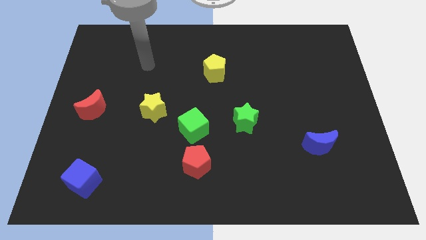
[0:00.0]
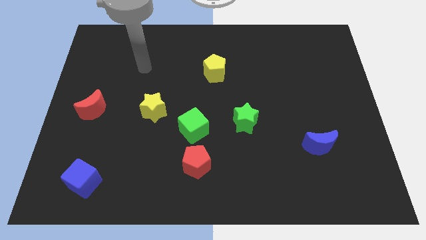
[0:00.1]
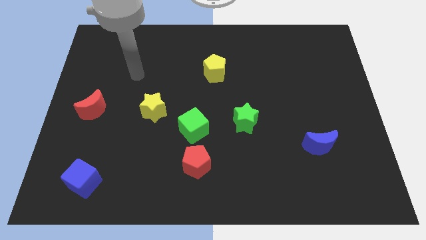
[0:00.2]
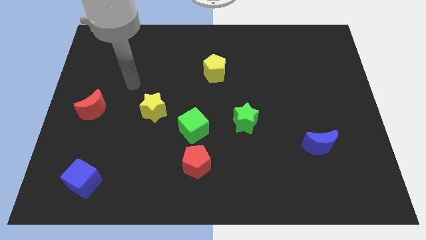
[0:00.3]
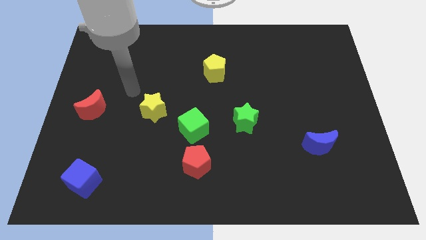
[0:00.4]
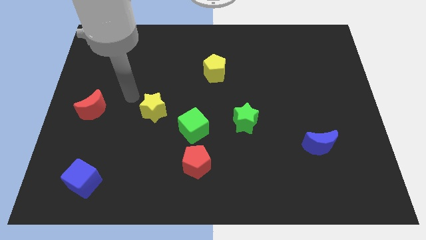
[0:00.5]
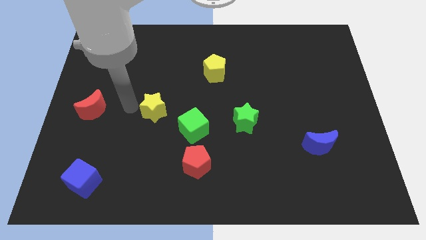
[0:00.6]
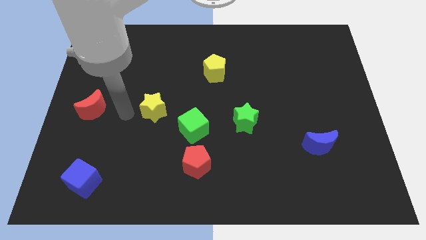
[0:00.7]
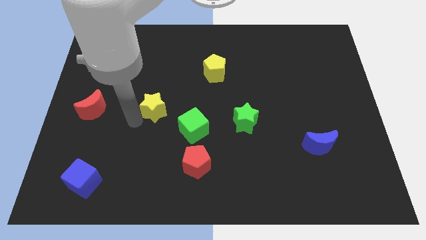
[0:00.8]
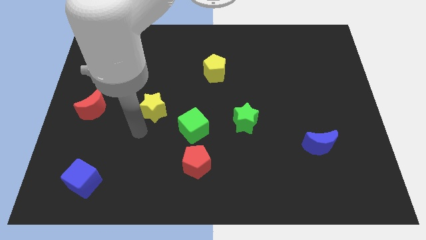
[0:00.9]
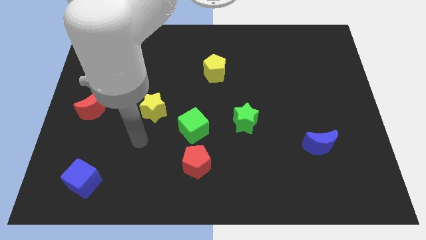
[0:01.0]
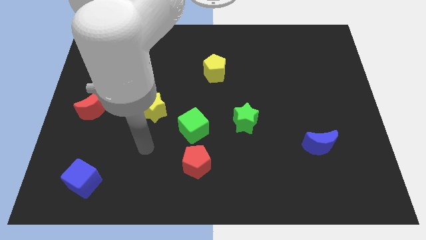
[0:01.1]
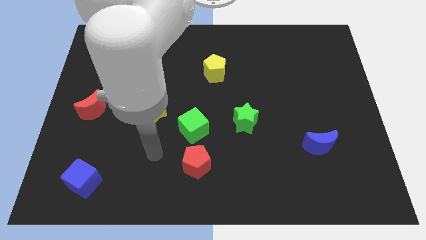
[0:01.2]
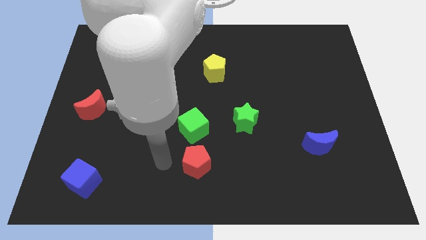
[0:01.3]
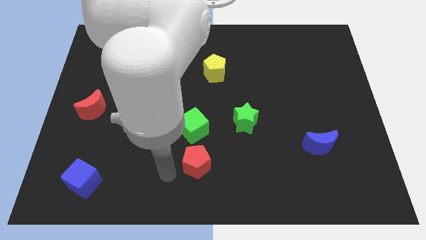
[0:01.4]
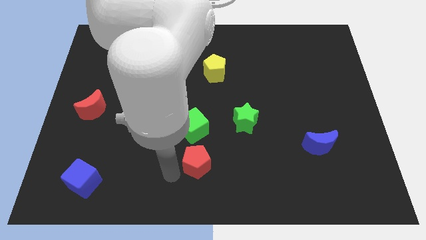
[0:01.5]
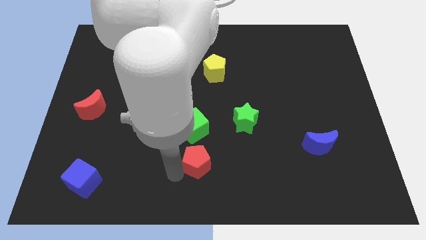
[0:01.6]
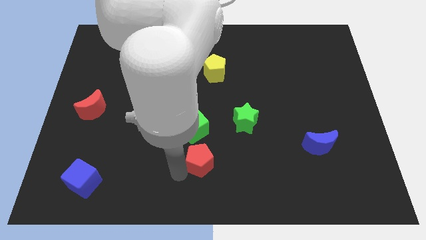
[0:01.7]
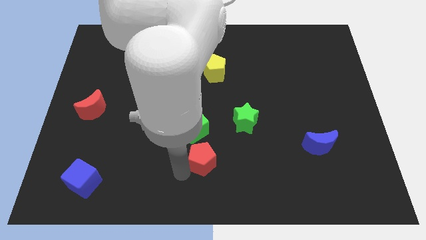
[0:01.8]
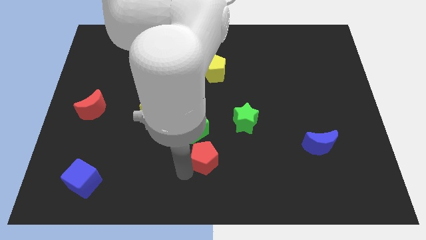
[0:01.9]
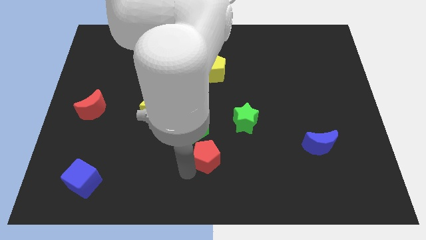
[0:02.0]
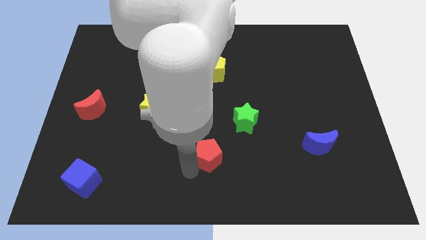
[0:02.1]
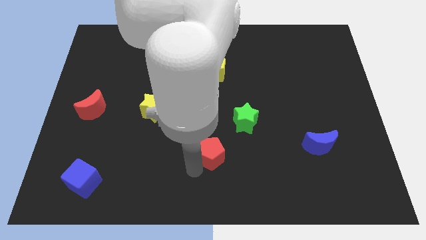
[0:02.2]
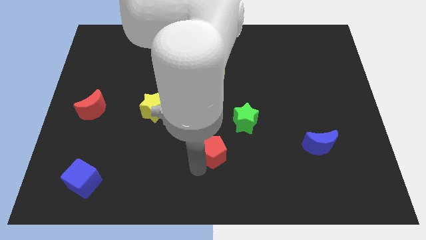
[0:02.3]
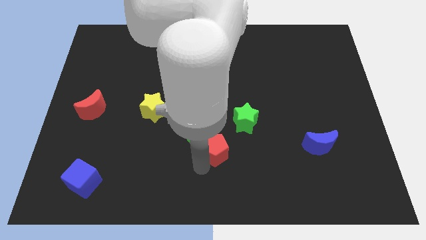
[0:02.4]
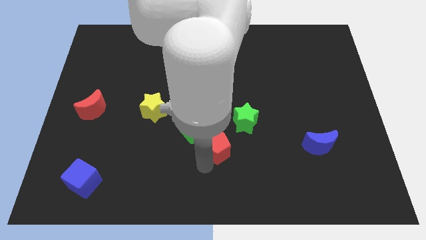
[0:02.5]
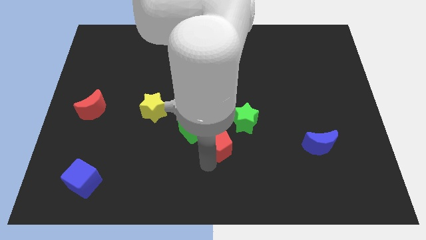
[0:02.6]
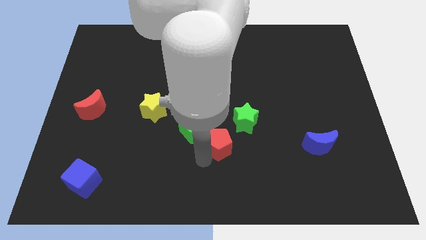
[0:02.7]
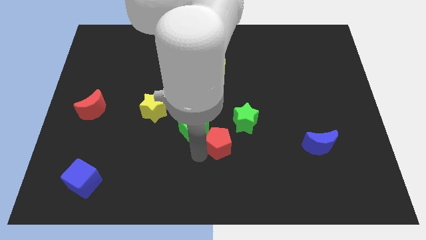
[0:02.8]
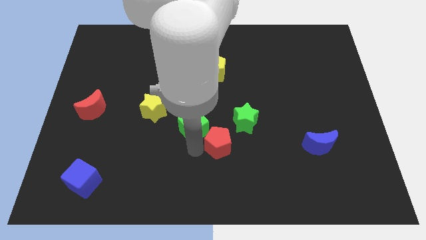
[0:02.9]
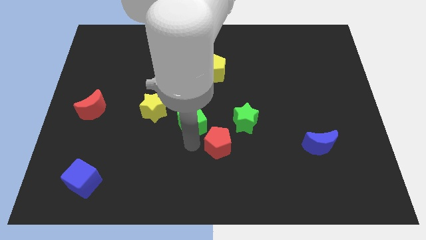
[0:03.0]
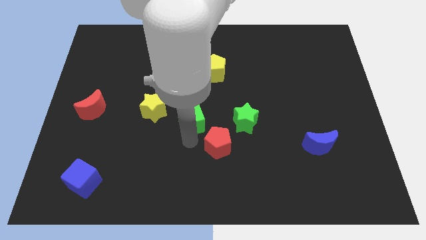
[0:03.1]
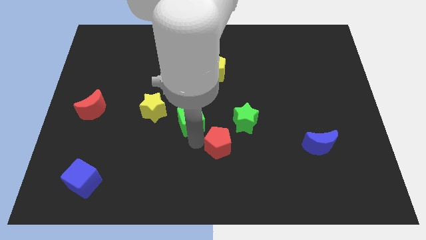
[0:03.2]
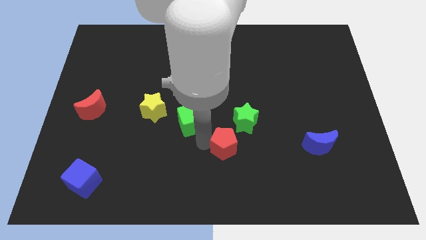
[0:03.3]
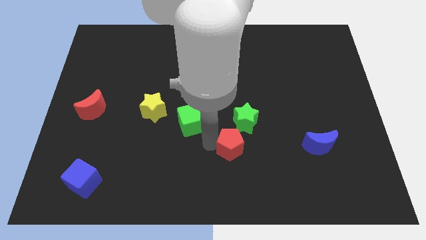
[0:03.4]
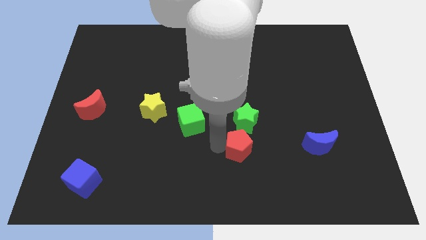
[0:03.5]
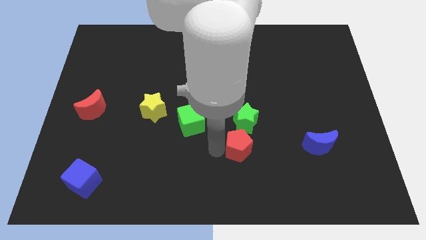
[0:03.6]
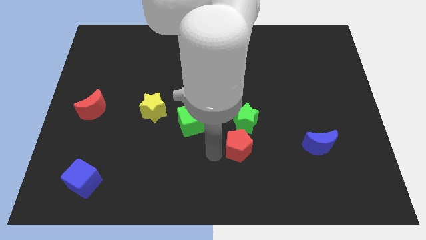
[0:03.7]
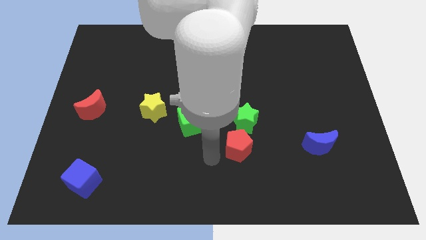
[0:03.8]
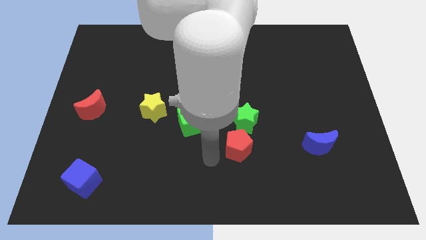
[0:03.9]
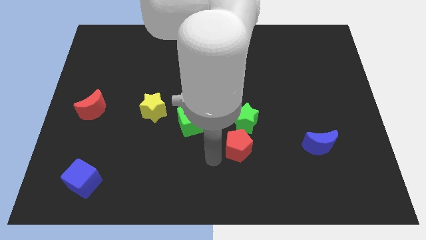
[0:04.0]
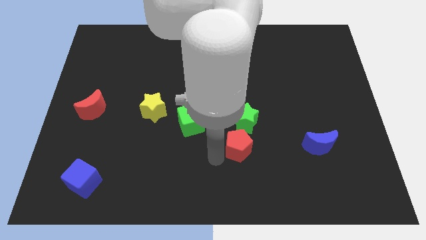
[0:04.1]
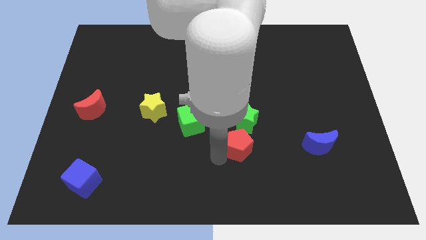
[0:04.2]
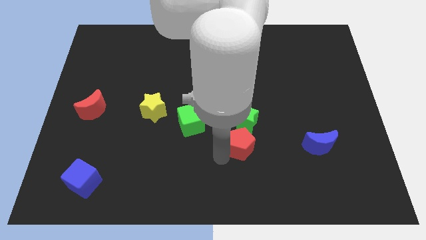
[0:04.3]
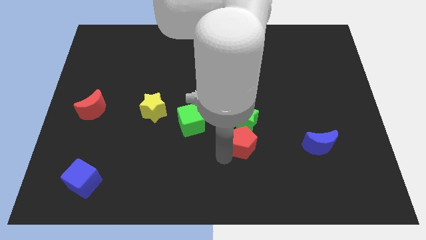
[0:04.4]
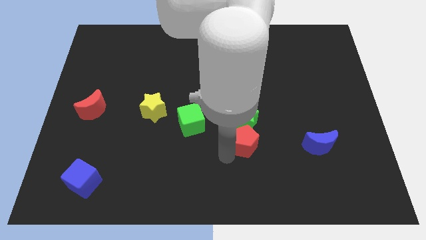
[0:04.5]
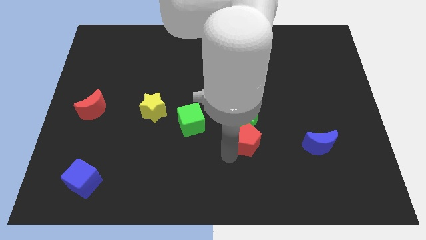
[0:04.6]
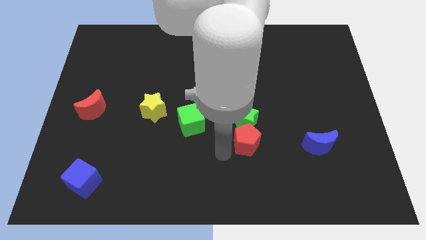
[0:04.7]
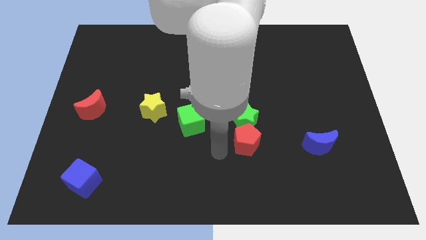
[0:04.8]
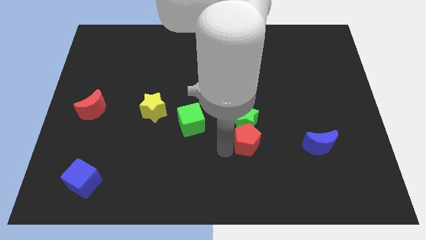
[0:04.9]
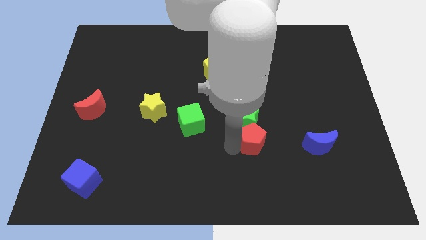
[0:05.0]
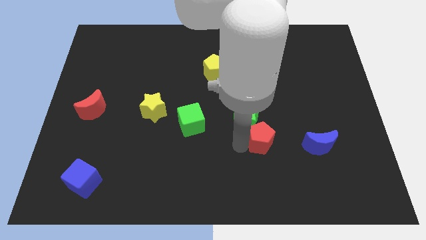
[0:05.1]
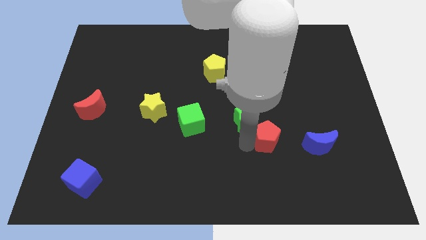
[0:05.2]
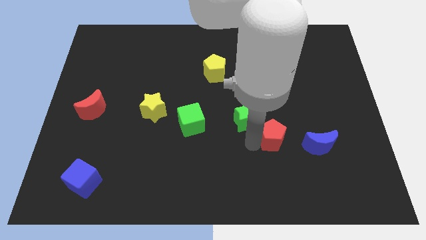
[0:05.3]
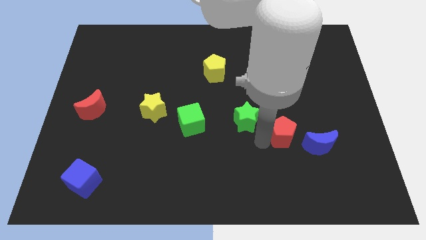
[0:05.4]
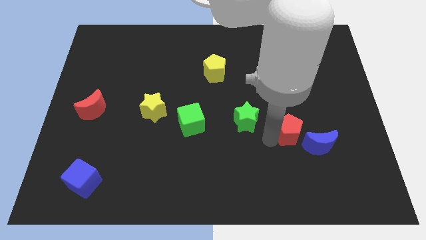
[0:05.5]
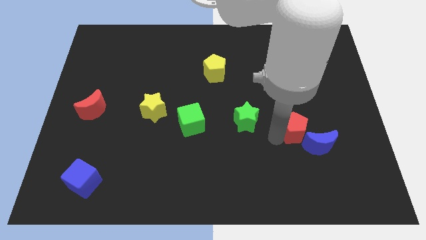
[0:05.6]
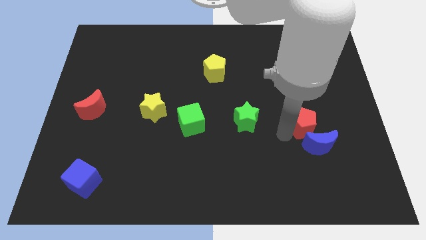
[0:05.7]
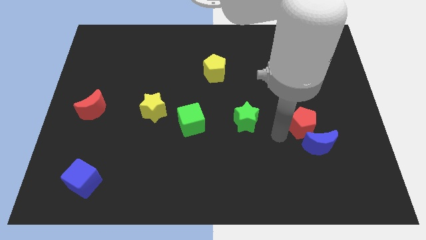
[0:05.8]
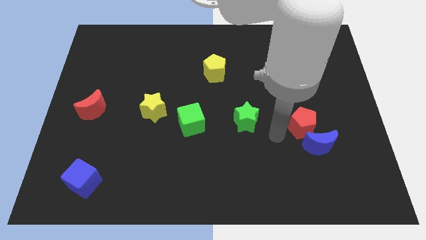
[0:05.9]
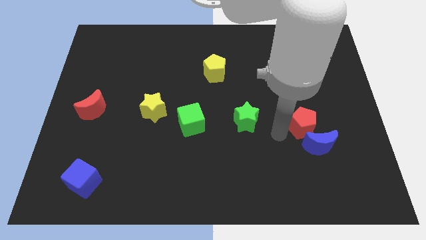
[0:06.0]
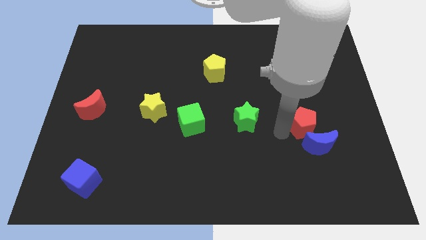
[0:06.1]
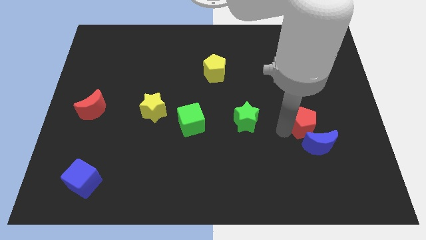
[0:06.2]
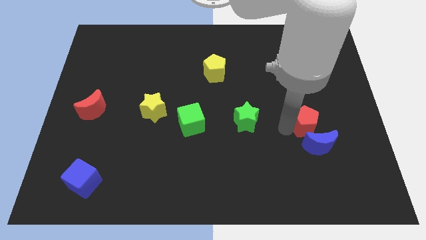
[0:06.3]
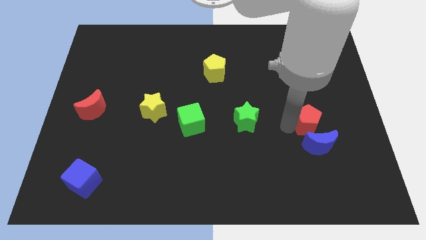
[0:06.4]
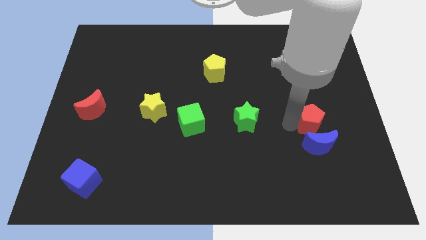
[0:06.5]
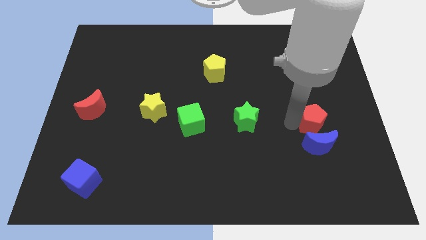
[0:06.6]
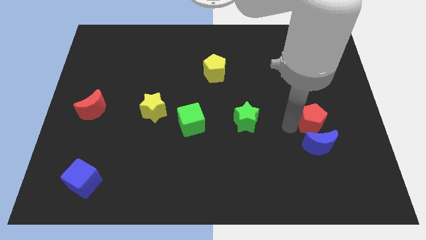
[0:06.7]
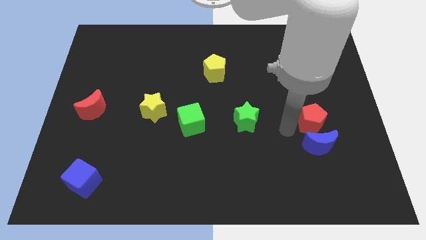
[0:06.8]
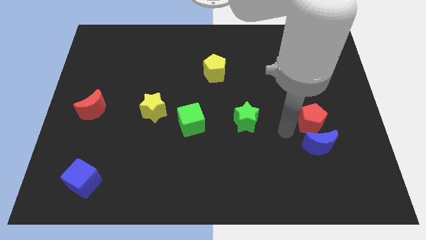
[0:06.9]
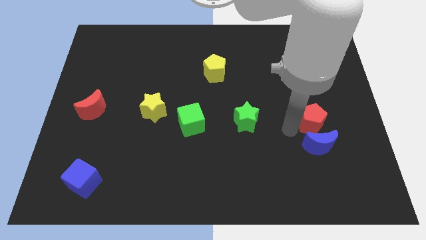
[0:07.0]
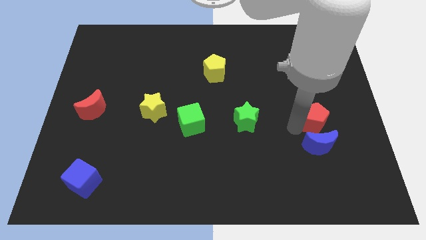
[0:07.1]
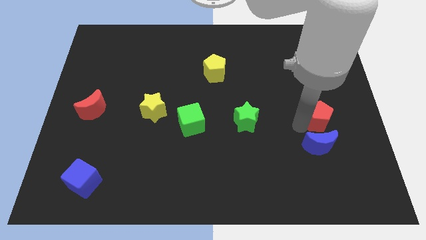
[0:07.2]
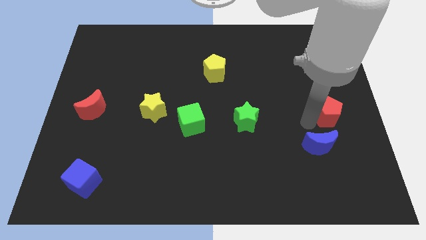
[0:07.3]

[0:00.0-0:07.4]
move the red pentagon to the center right
